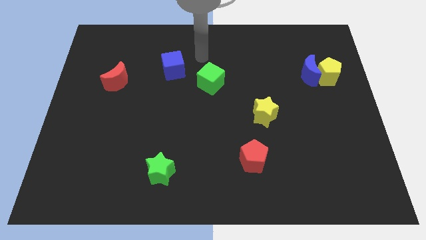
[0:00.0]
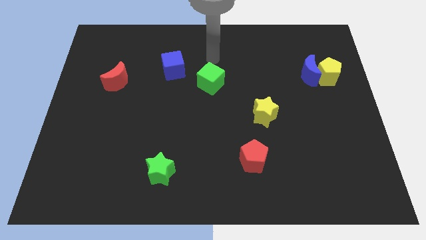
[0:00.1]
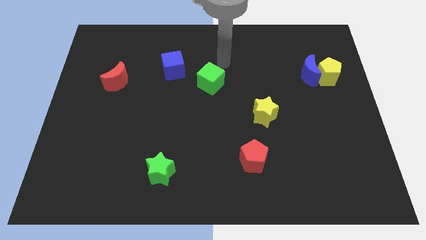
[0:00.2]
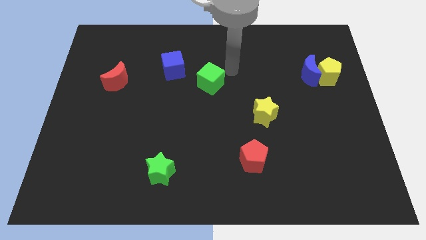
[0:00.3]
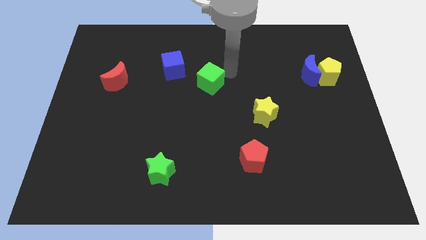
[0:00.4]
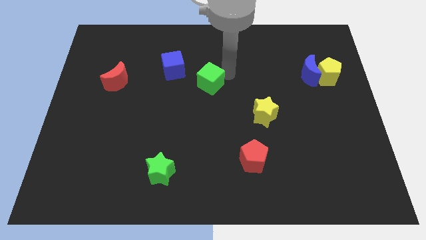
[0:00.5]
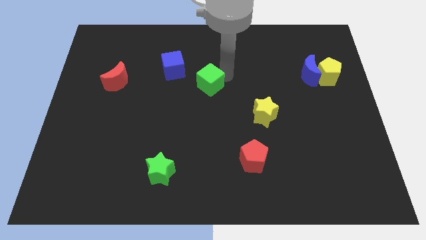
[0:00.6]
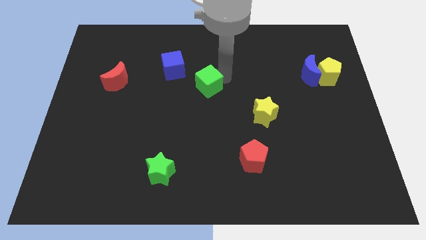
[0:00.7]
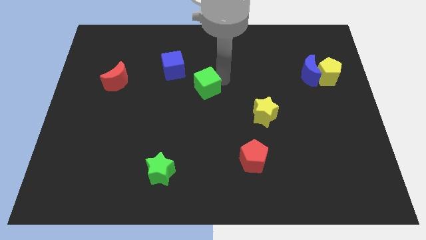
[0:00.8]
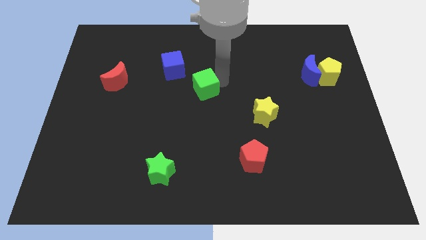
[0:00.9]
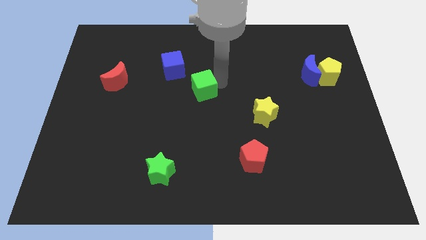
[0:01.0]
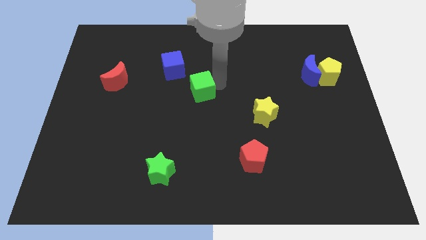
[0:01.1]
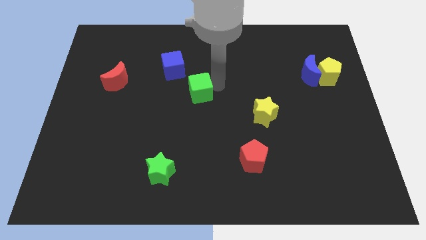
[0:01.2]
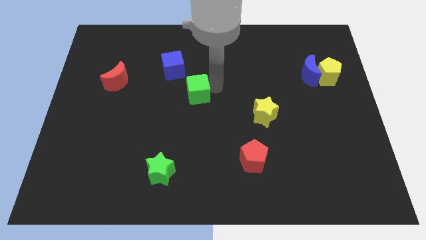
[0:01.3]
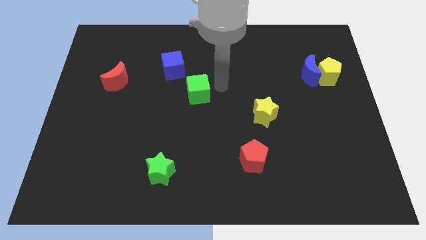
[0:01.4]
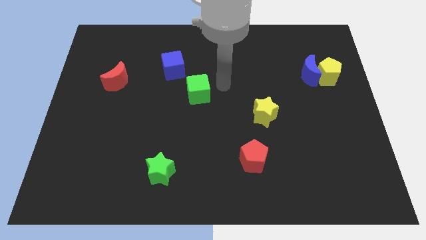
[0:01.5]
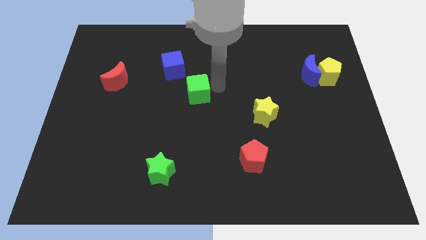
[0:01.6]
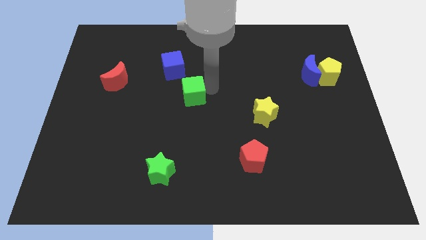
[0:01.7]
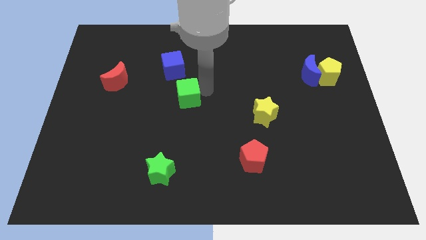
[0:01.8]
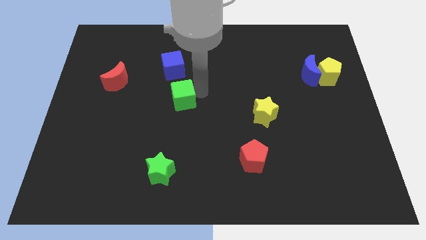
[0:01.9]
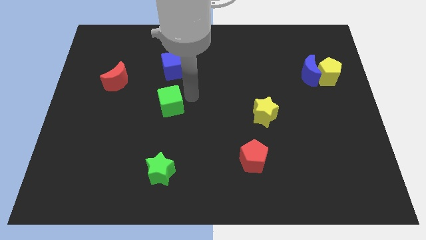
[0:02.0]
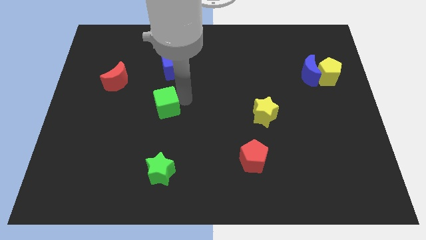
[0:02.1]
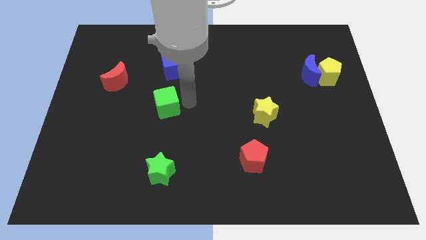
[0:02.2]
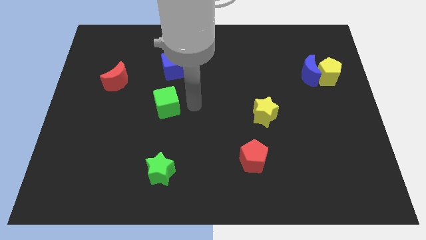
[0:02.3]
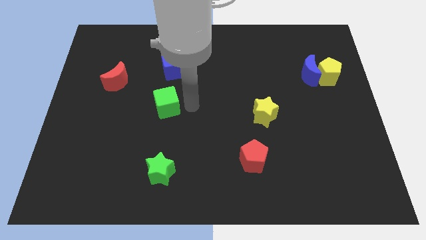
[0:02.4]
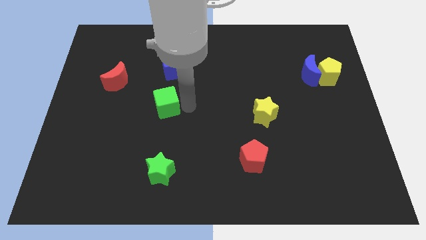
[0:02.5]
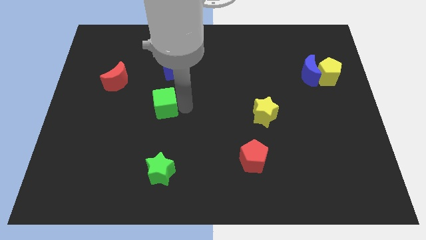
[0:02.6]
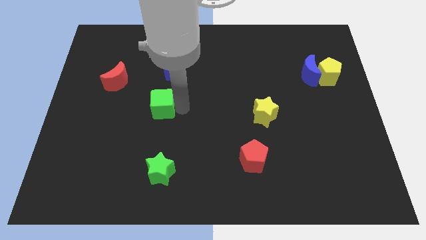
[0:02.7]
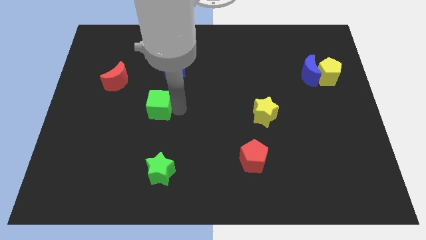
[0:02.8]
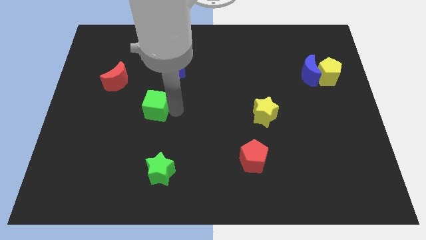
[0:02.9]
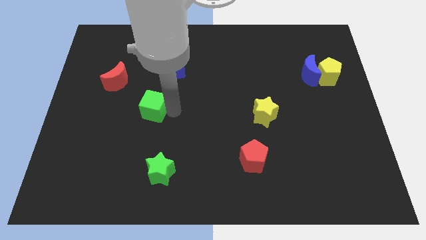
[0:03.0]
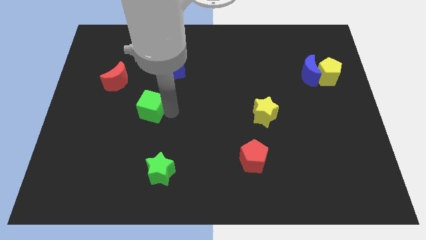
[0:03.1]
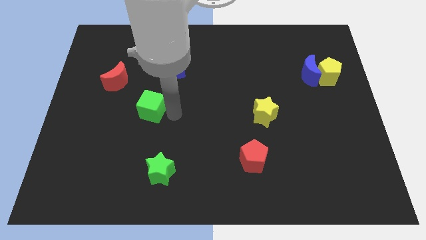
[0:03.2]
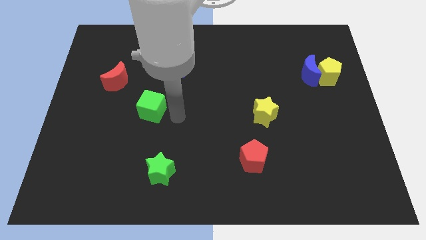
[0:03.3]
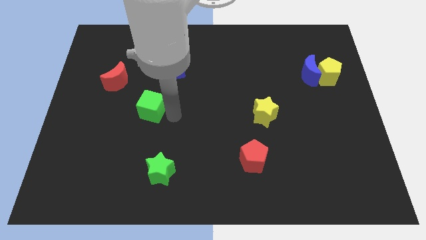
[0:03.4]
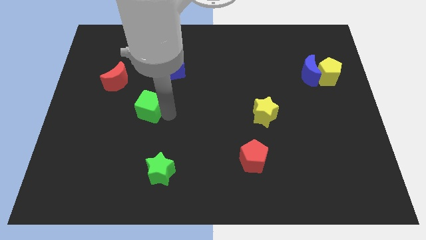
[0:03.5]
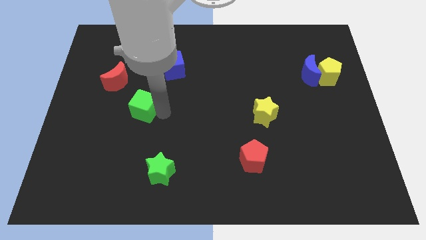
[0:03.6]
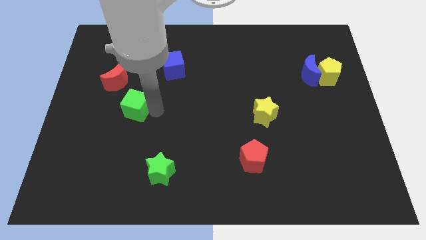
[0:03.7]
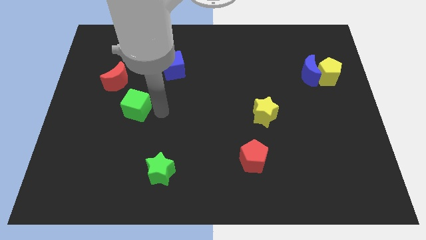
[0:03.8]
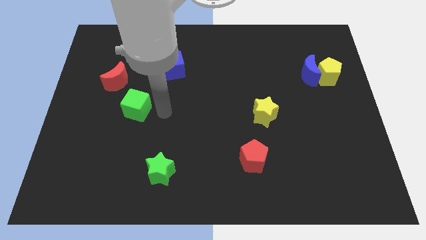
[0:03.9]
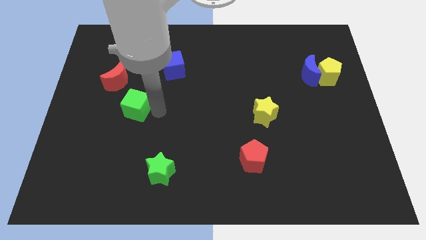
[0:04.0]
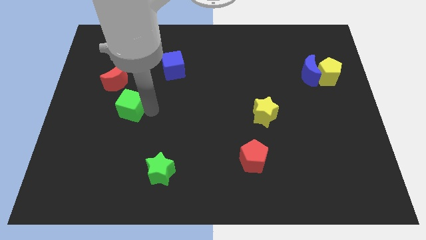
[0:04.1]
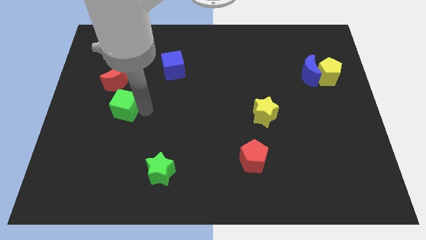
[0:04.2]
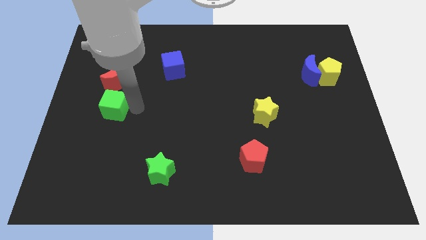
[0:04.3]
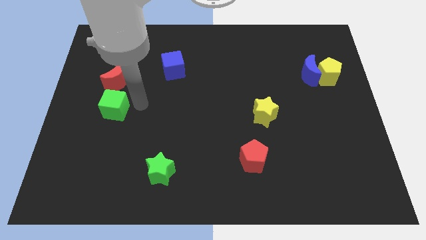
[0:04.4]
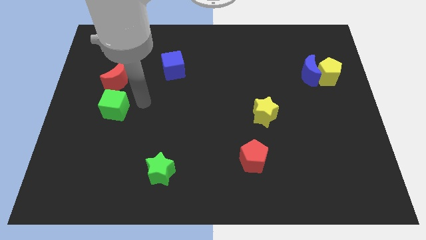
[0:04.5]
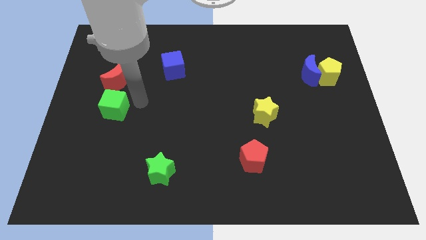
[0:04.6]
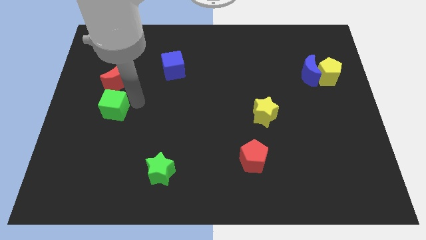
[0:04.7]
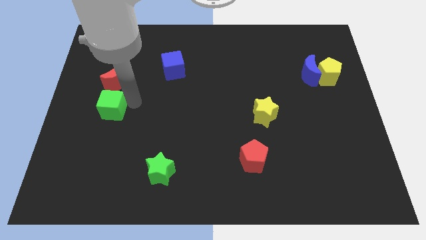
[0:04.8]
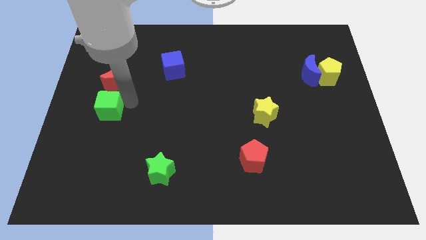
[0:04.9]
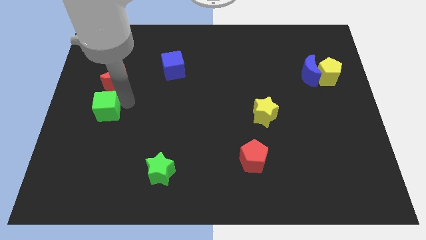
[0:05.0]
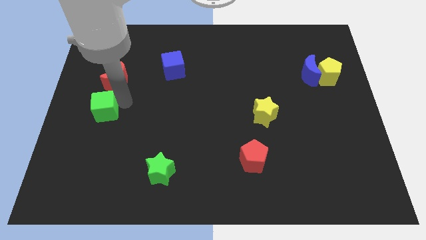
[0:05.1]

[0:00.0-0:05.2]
put the green cube to the left side

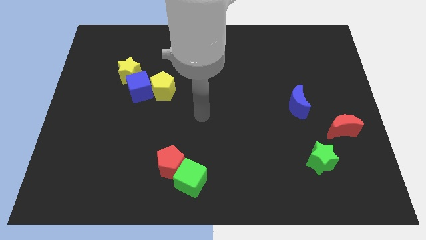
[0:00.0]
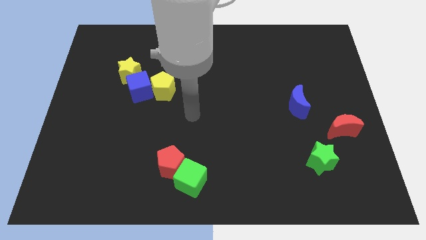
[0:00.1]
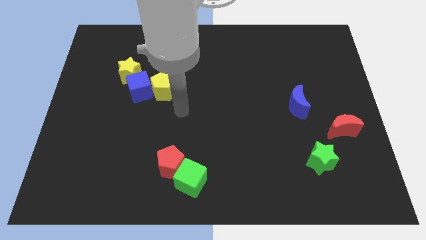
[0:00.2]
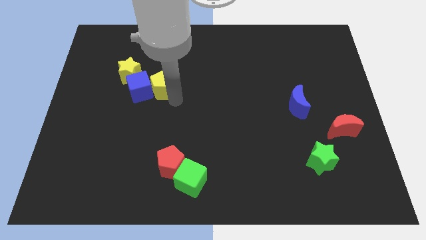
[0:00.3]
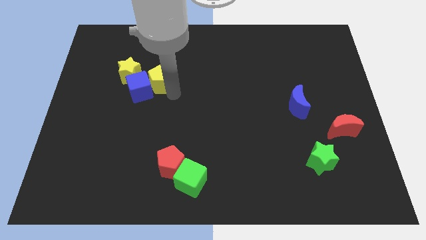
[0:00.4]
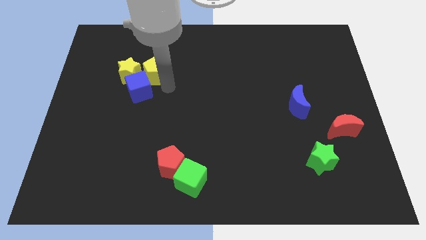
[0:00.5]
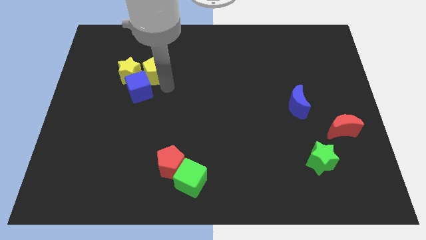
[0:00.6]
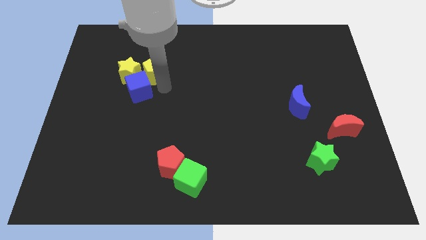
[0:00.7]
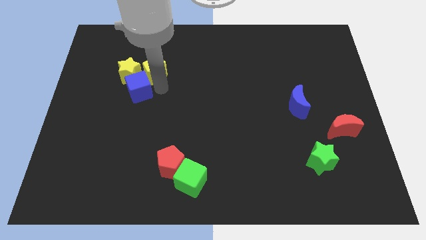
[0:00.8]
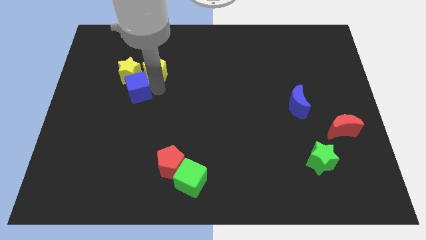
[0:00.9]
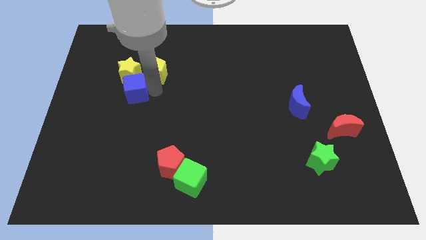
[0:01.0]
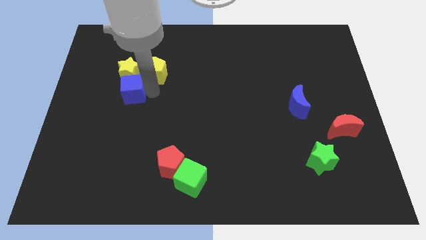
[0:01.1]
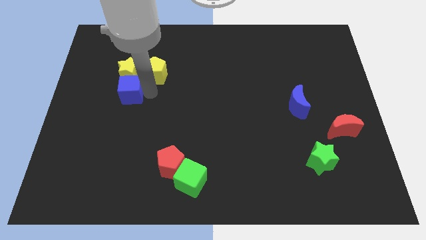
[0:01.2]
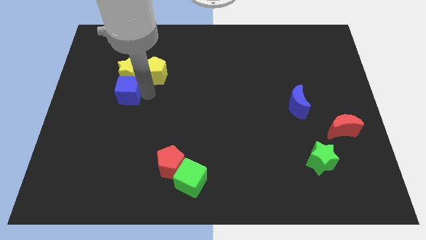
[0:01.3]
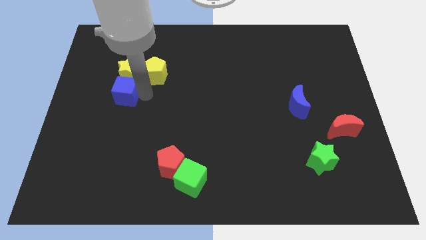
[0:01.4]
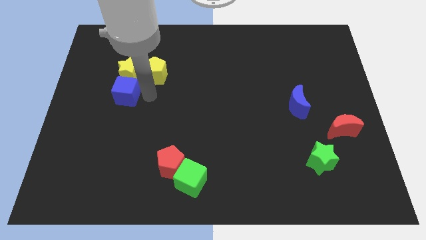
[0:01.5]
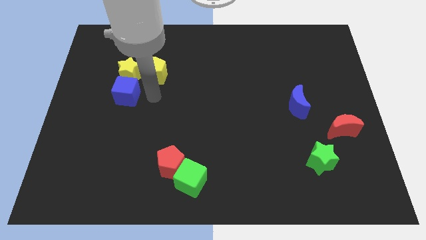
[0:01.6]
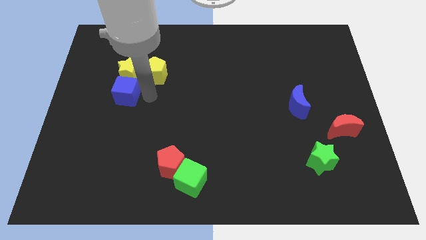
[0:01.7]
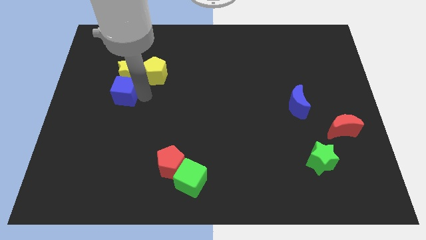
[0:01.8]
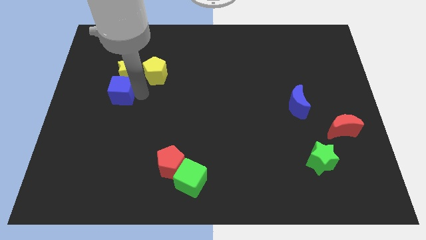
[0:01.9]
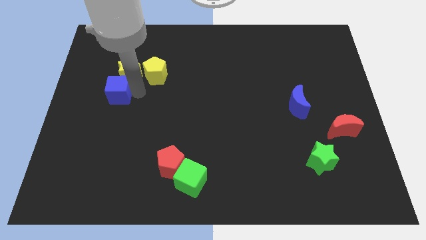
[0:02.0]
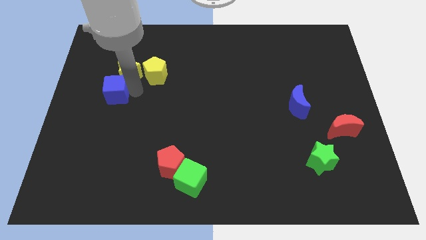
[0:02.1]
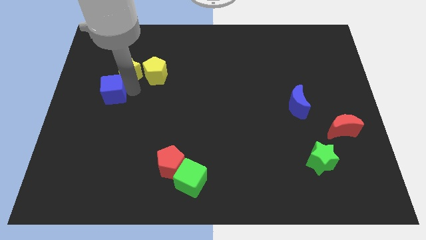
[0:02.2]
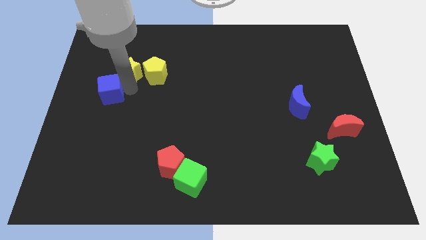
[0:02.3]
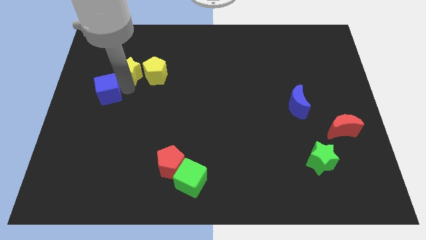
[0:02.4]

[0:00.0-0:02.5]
push the blue cube to the left side of the board
